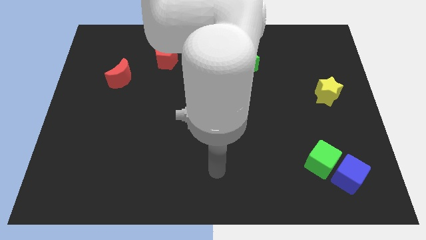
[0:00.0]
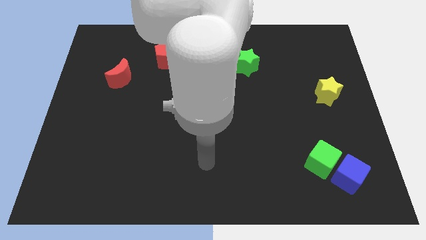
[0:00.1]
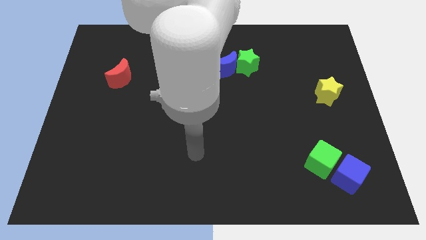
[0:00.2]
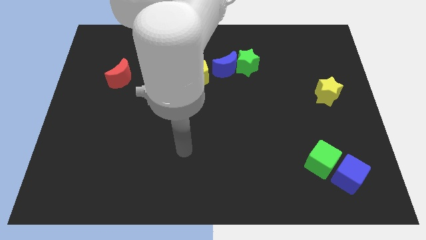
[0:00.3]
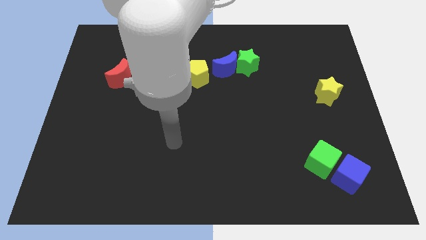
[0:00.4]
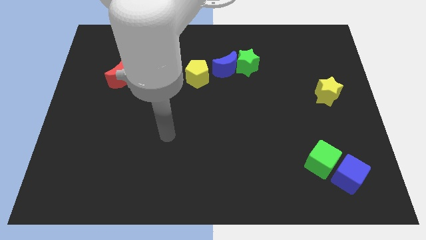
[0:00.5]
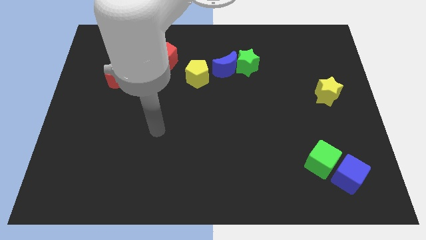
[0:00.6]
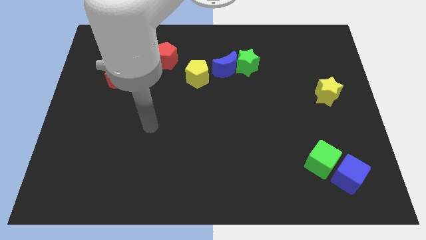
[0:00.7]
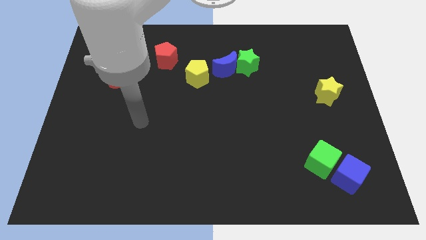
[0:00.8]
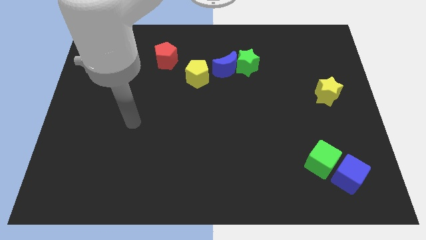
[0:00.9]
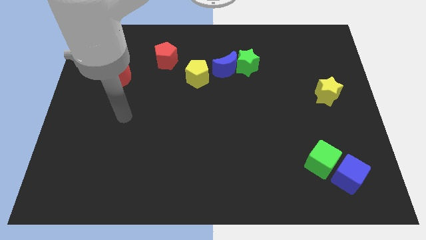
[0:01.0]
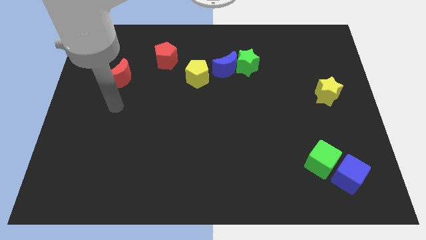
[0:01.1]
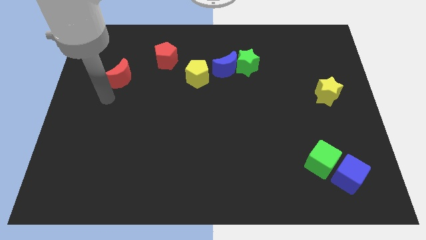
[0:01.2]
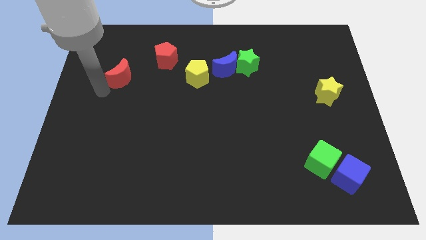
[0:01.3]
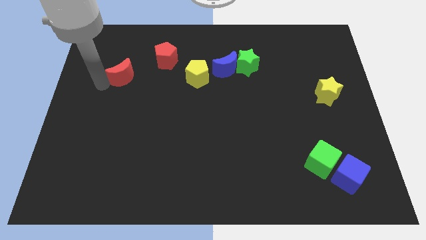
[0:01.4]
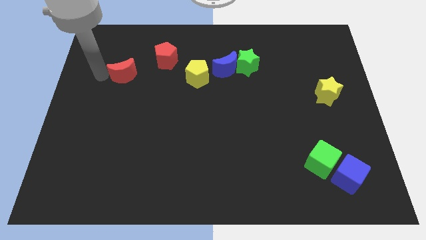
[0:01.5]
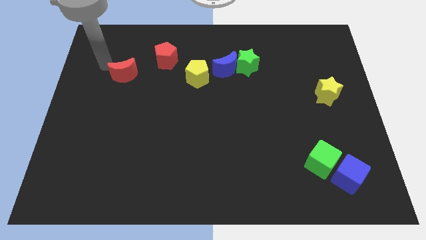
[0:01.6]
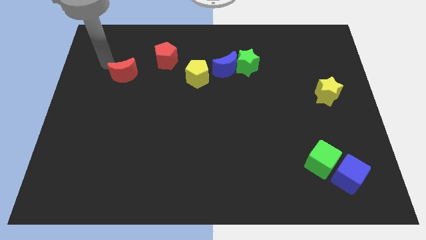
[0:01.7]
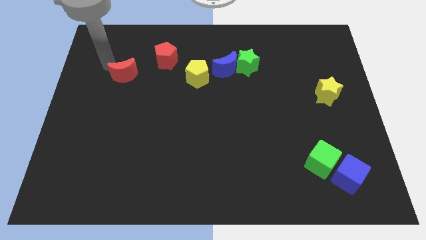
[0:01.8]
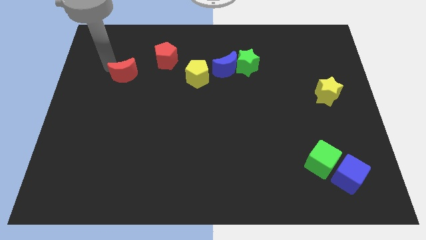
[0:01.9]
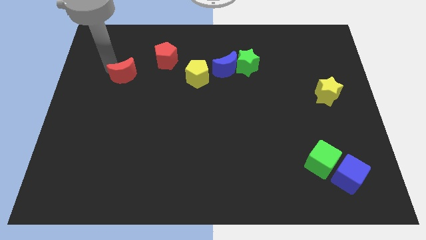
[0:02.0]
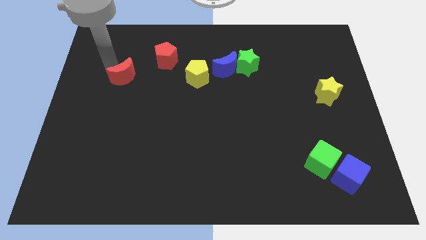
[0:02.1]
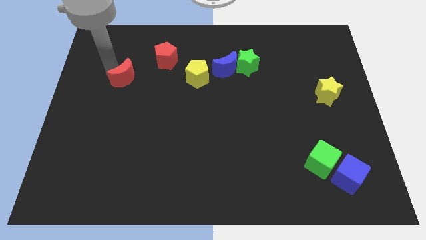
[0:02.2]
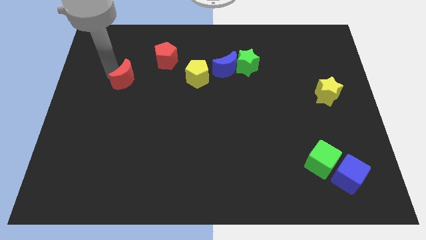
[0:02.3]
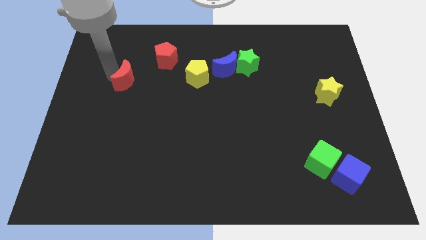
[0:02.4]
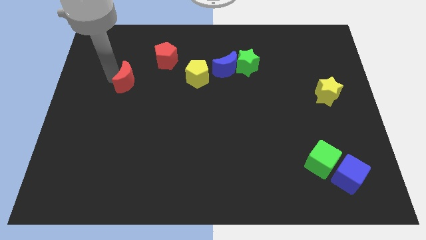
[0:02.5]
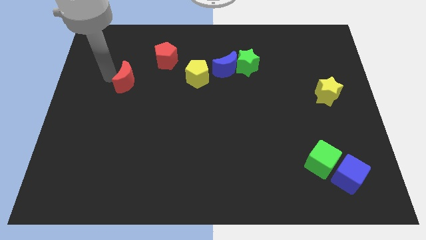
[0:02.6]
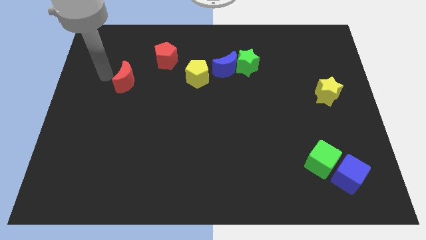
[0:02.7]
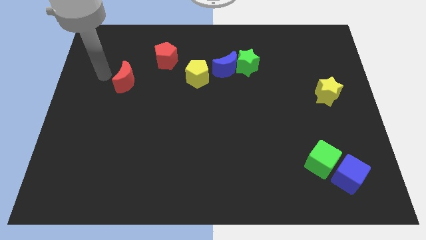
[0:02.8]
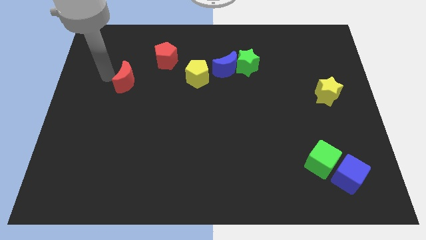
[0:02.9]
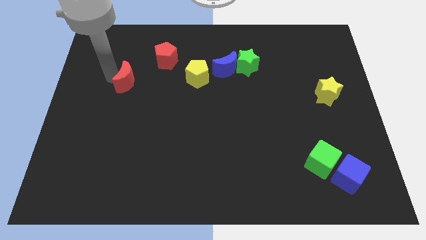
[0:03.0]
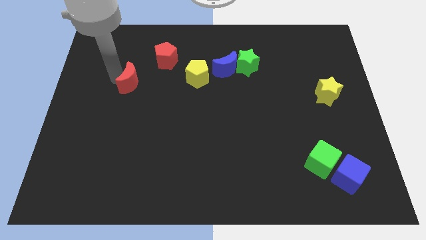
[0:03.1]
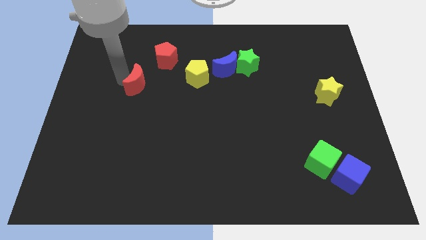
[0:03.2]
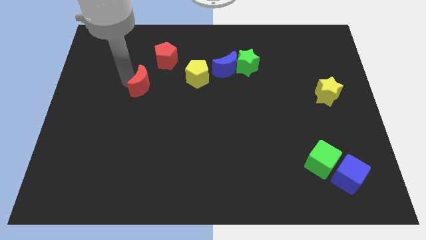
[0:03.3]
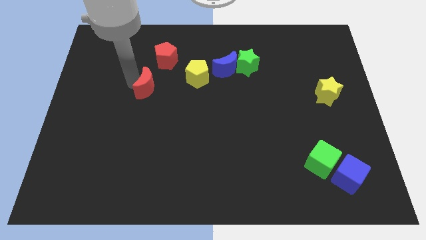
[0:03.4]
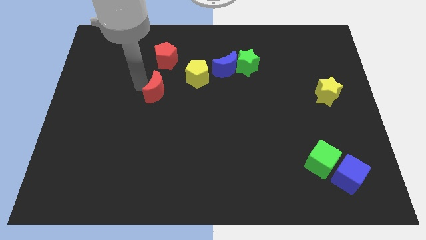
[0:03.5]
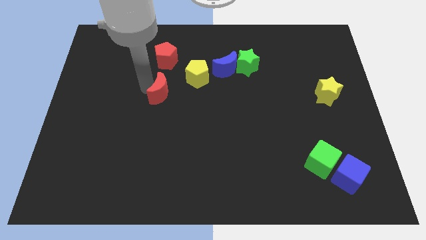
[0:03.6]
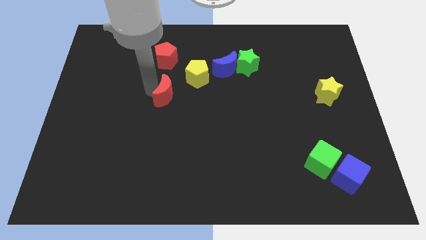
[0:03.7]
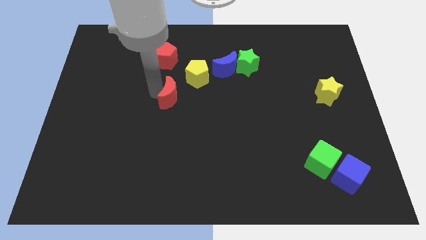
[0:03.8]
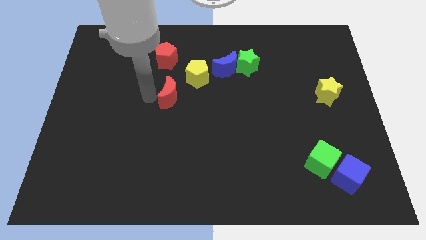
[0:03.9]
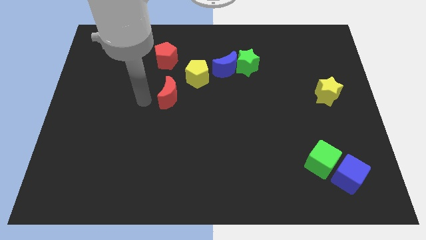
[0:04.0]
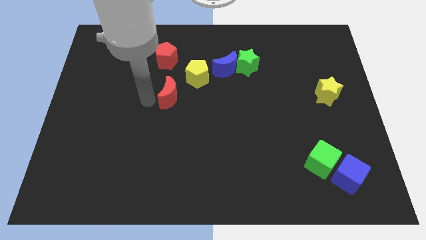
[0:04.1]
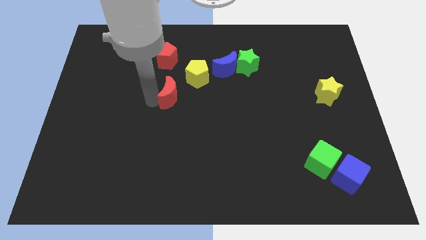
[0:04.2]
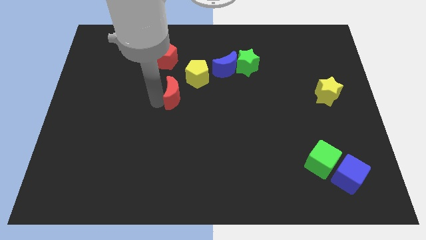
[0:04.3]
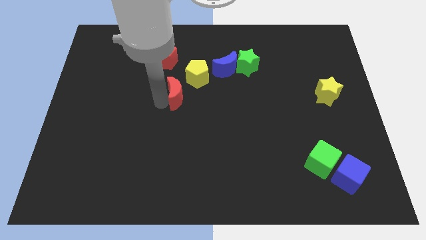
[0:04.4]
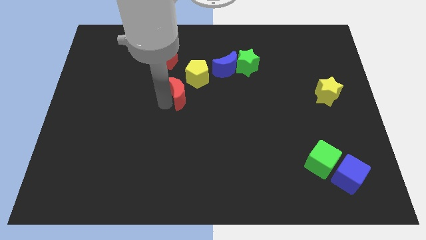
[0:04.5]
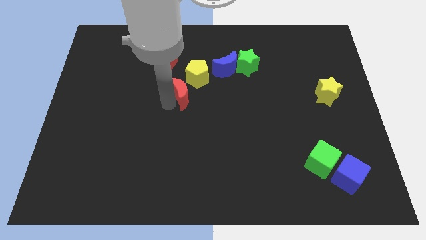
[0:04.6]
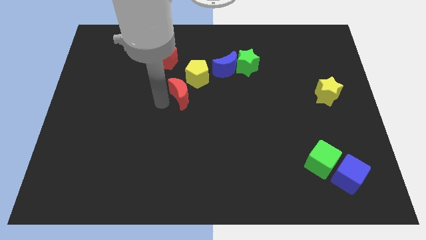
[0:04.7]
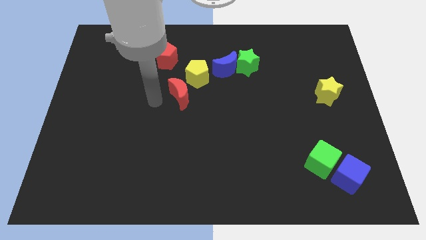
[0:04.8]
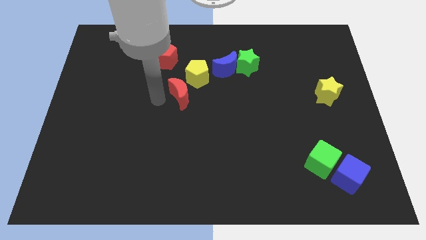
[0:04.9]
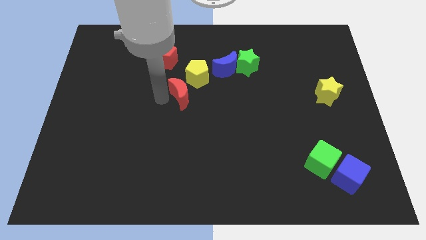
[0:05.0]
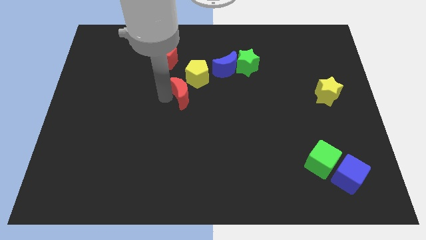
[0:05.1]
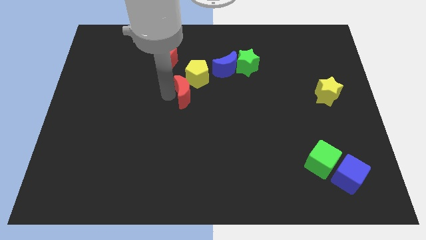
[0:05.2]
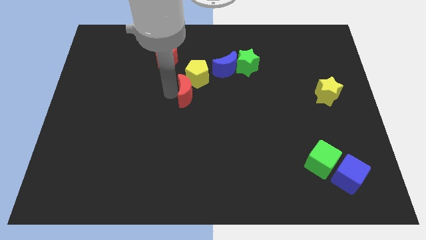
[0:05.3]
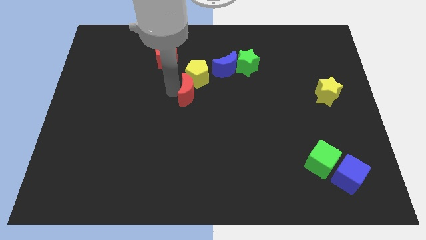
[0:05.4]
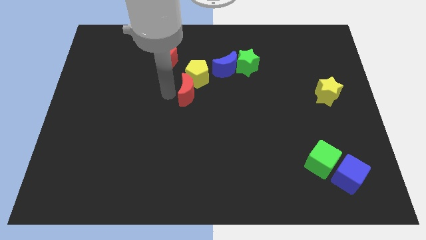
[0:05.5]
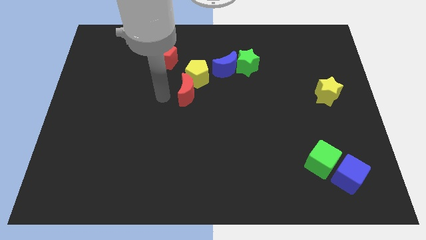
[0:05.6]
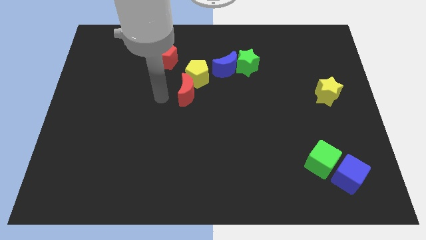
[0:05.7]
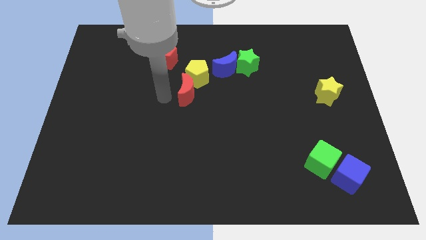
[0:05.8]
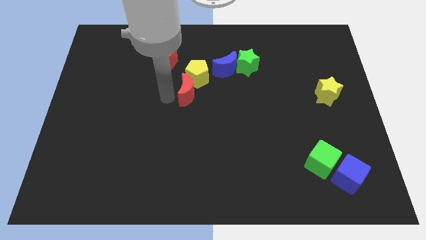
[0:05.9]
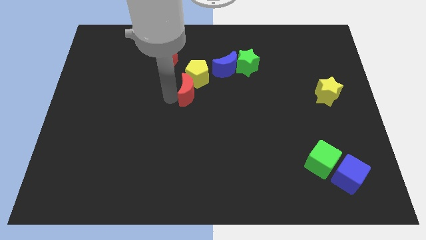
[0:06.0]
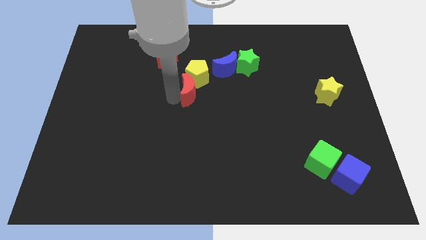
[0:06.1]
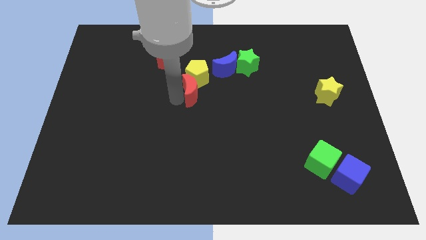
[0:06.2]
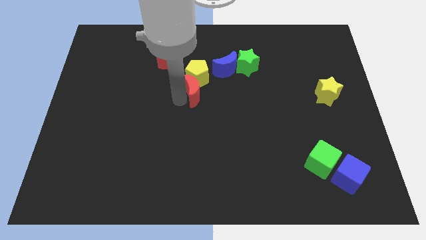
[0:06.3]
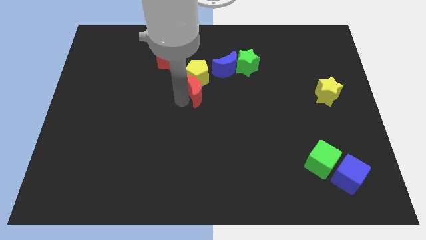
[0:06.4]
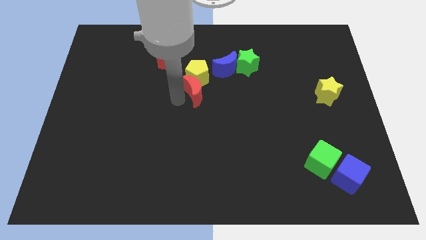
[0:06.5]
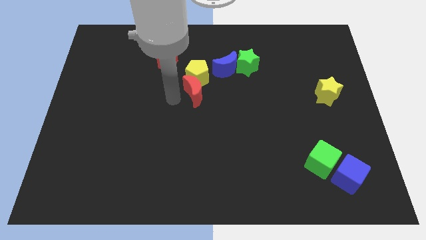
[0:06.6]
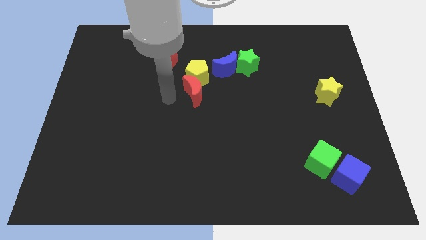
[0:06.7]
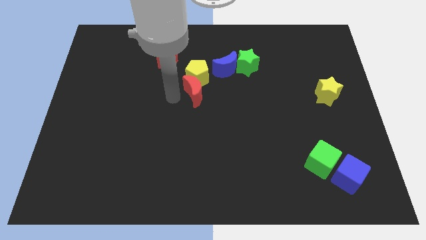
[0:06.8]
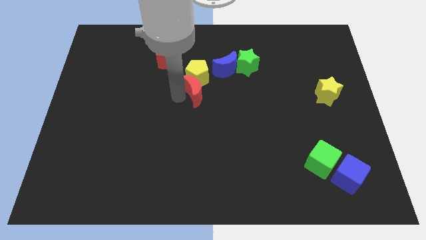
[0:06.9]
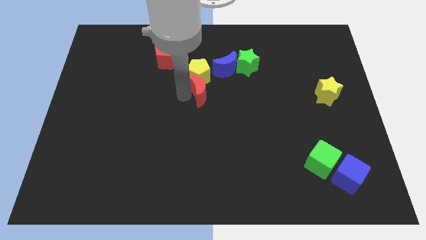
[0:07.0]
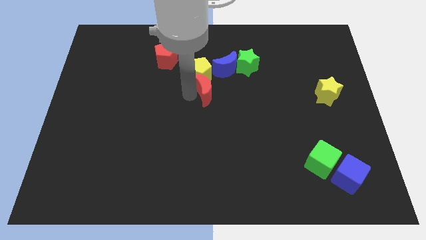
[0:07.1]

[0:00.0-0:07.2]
slide the red moon right

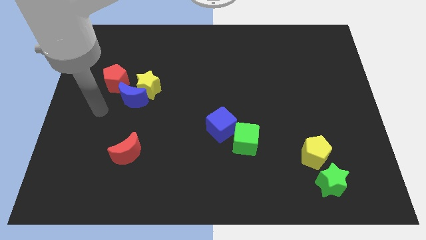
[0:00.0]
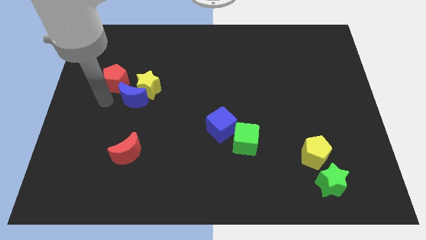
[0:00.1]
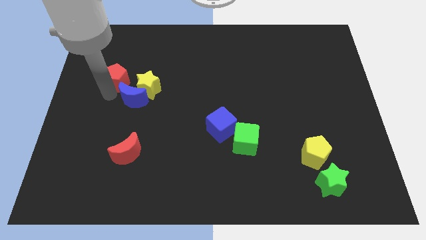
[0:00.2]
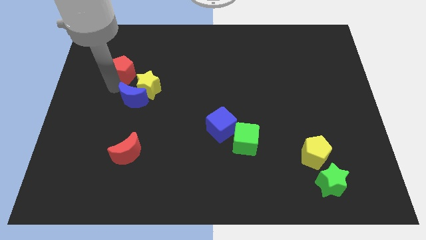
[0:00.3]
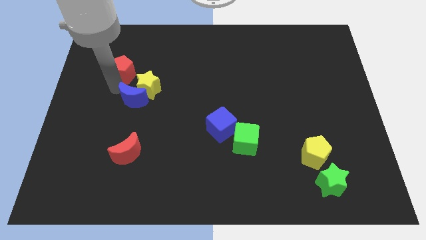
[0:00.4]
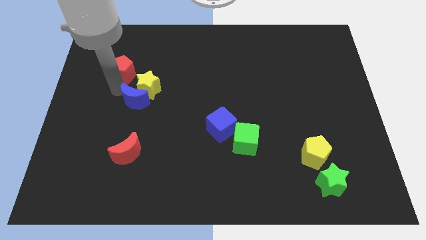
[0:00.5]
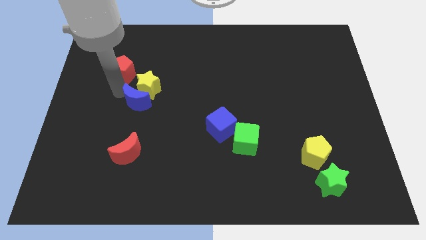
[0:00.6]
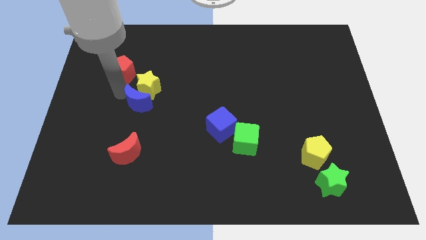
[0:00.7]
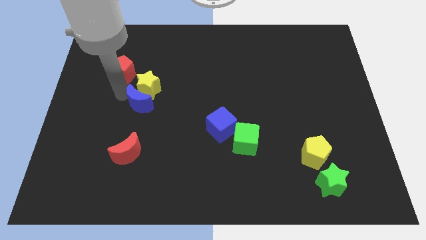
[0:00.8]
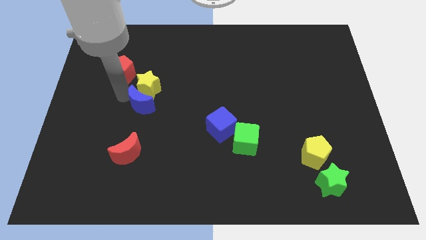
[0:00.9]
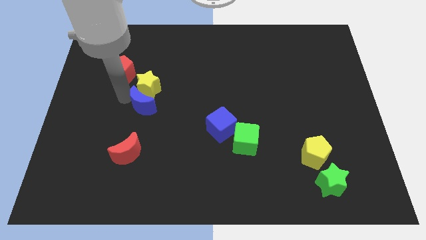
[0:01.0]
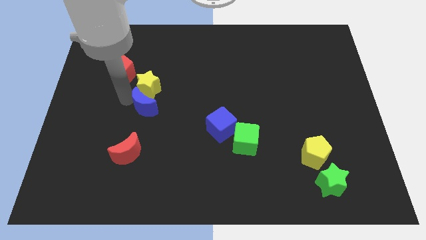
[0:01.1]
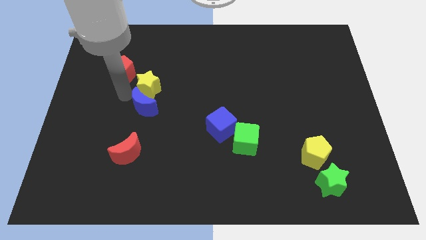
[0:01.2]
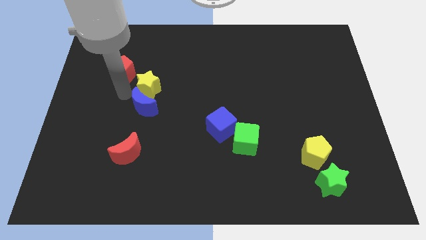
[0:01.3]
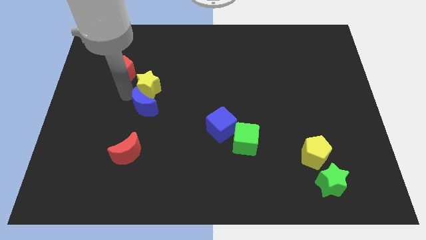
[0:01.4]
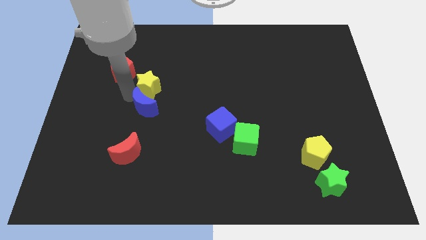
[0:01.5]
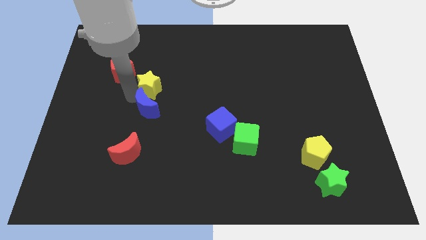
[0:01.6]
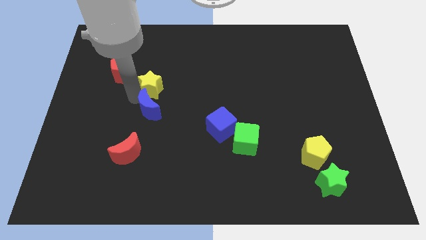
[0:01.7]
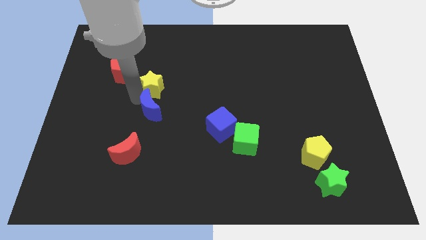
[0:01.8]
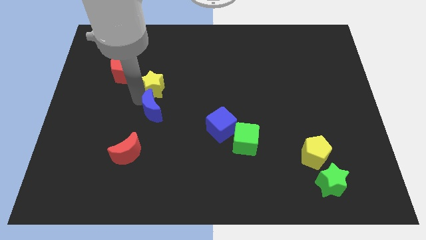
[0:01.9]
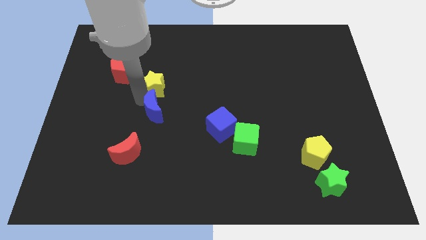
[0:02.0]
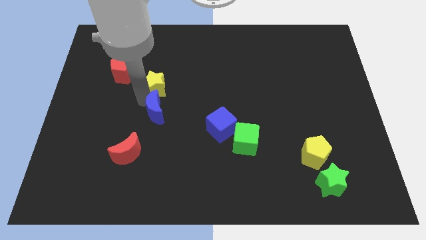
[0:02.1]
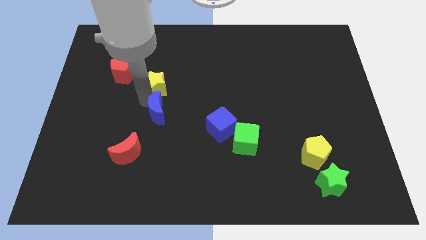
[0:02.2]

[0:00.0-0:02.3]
move the blue moon a little bit down and to the right diagonally
